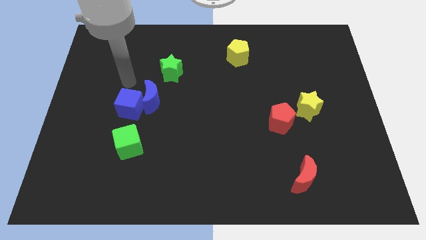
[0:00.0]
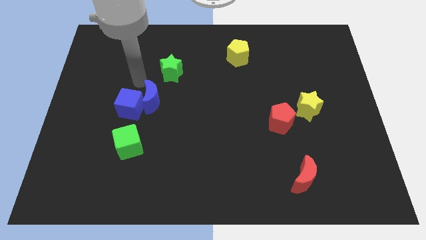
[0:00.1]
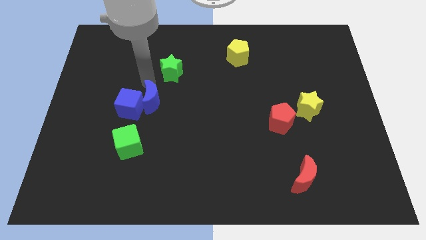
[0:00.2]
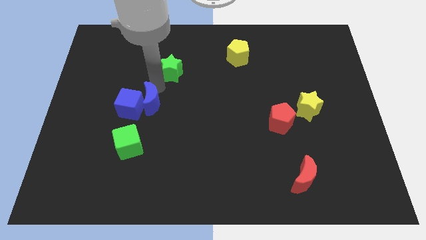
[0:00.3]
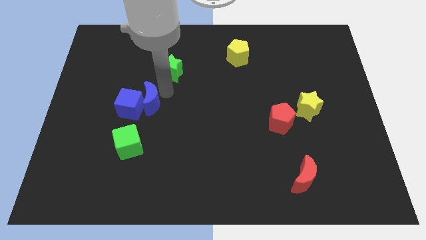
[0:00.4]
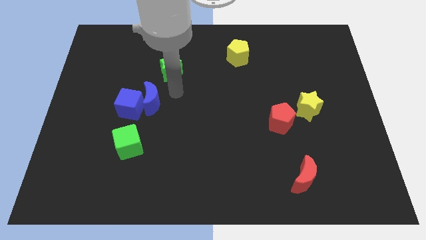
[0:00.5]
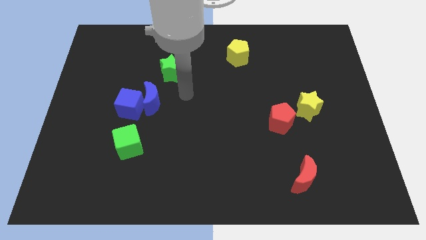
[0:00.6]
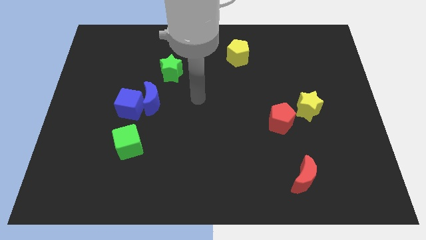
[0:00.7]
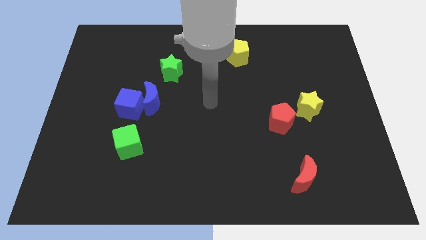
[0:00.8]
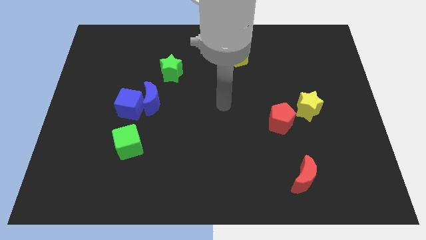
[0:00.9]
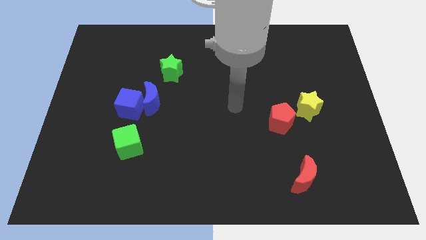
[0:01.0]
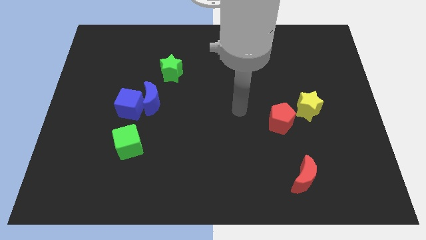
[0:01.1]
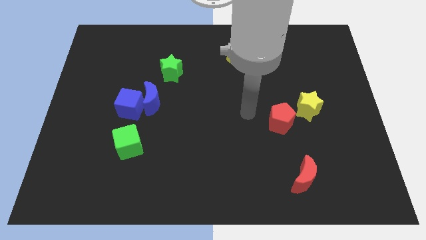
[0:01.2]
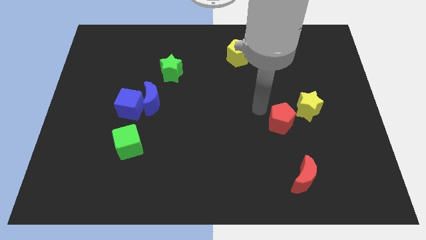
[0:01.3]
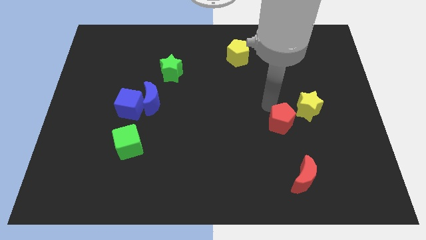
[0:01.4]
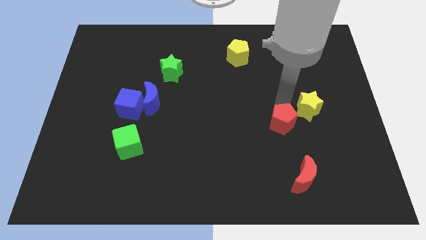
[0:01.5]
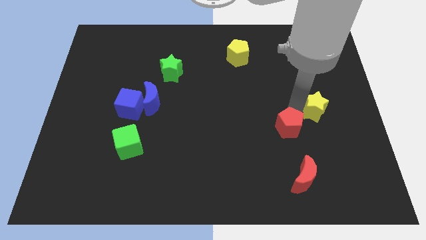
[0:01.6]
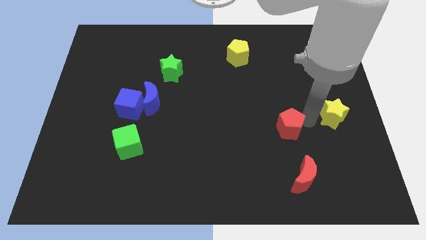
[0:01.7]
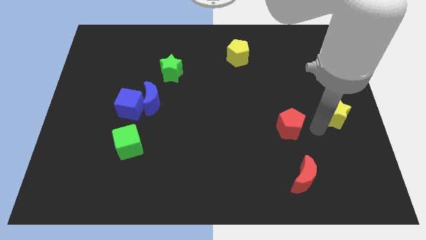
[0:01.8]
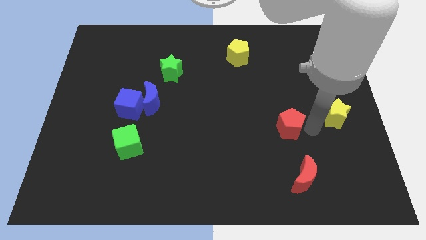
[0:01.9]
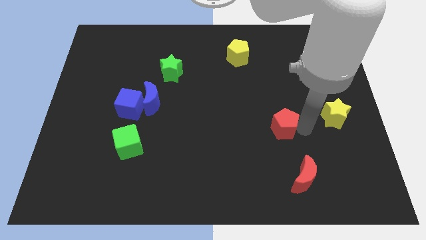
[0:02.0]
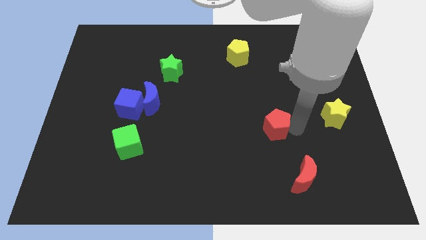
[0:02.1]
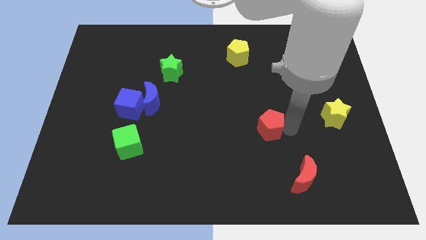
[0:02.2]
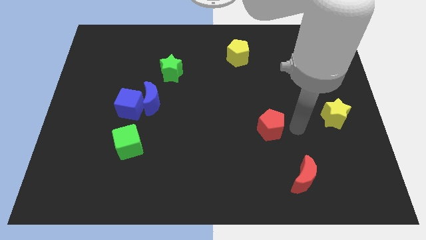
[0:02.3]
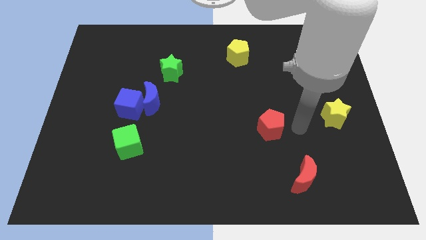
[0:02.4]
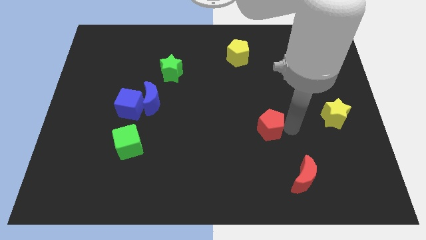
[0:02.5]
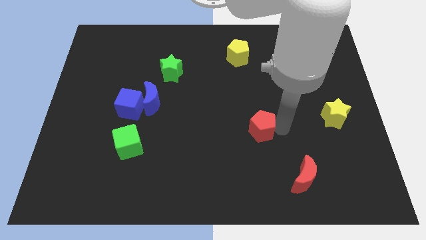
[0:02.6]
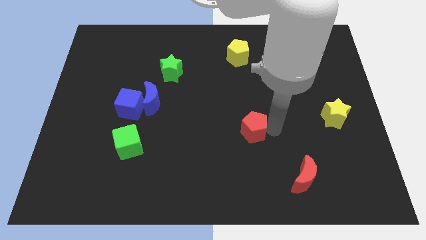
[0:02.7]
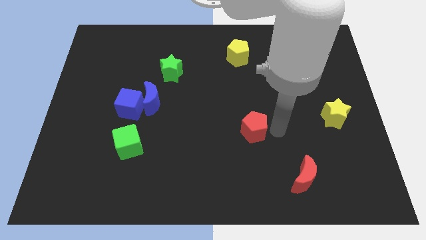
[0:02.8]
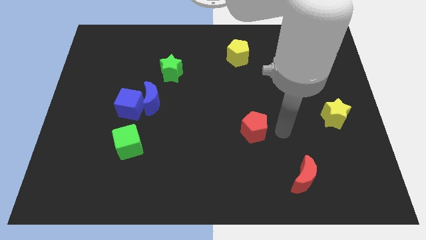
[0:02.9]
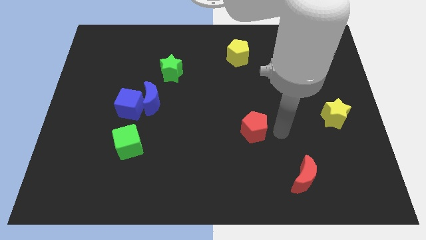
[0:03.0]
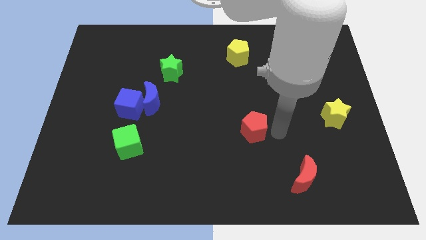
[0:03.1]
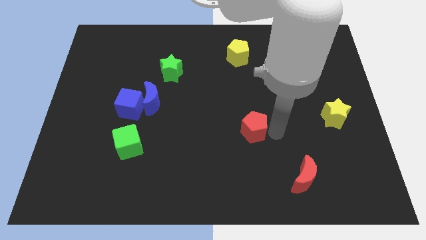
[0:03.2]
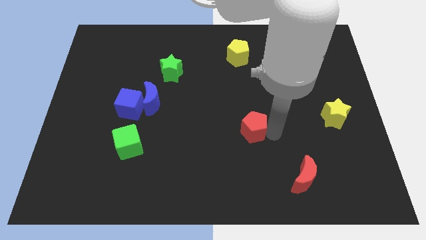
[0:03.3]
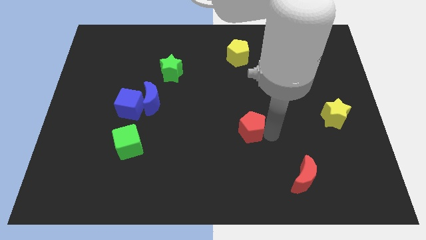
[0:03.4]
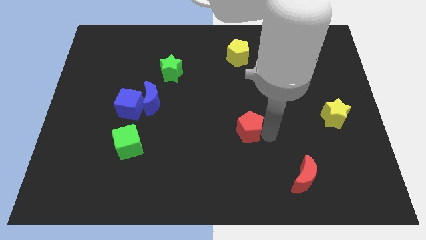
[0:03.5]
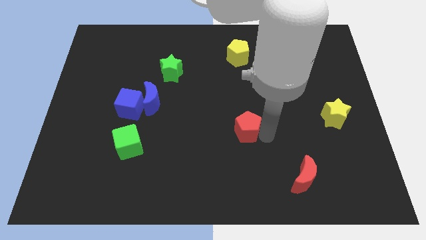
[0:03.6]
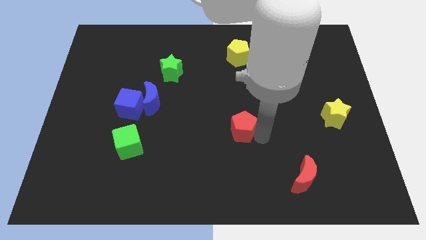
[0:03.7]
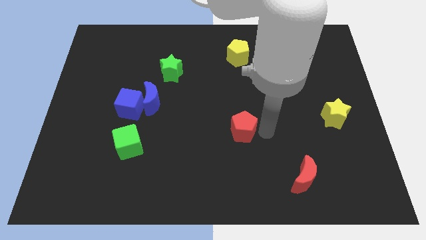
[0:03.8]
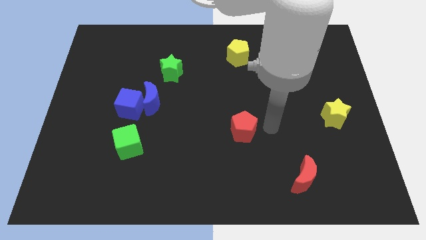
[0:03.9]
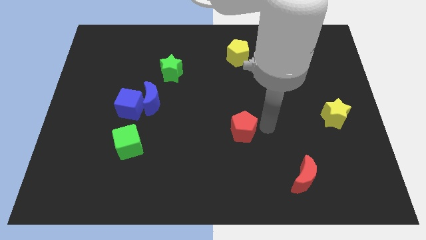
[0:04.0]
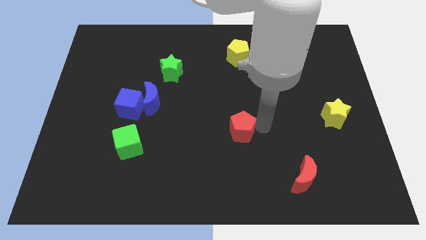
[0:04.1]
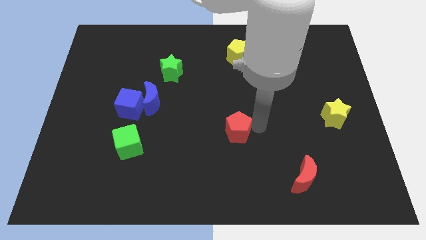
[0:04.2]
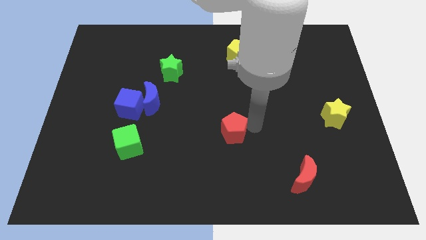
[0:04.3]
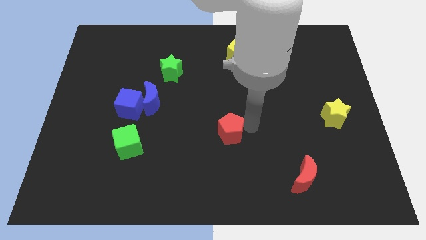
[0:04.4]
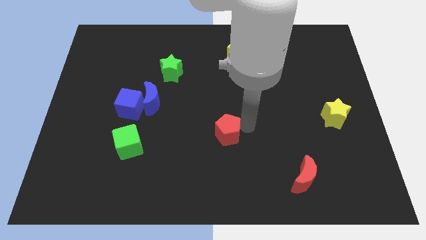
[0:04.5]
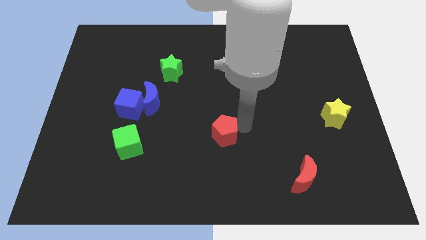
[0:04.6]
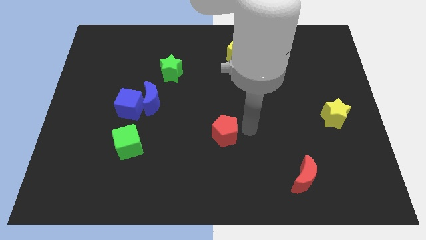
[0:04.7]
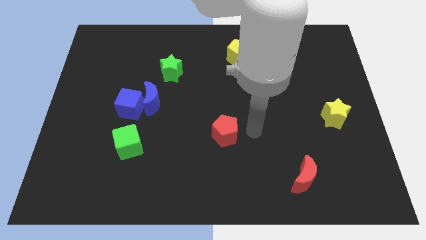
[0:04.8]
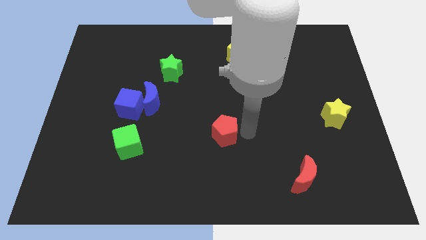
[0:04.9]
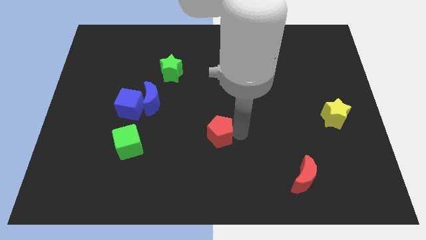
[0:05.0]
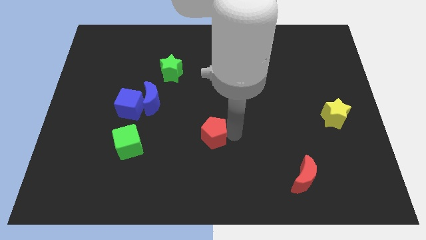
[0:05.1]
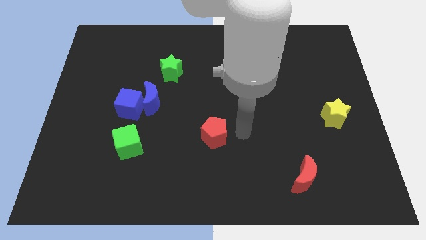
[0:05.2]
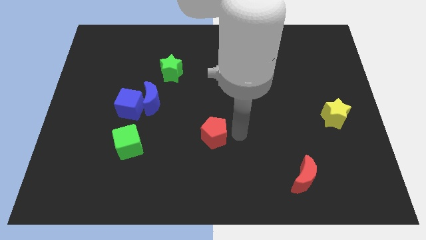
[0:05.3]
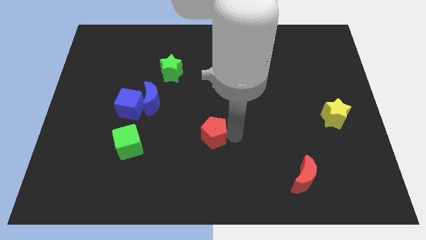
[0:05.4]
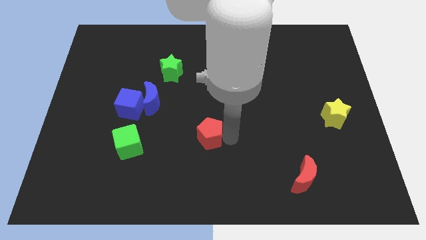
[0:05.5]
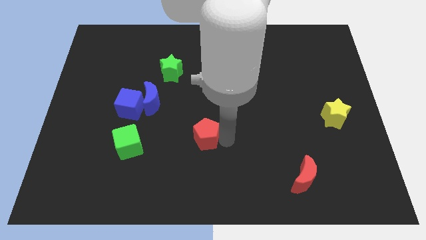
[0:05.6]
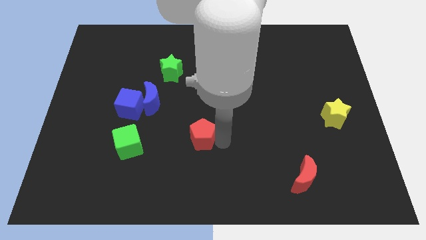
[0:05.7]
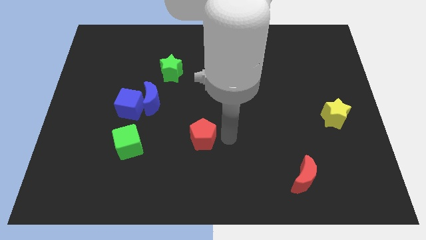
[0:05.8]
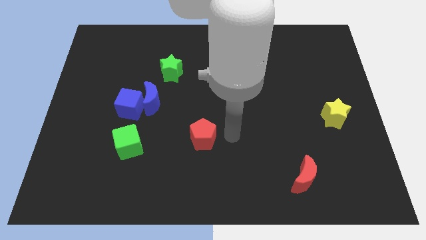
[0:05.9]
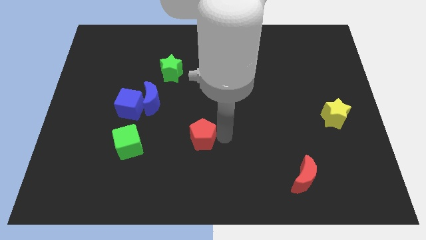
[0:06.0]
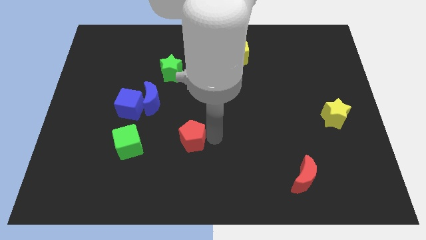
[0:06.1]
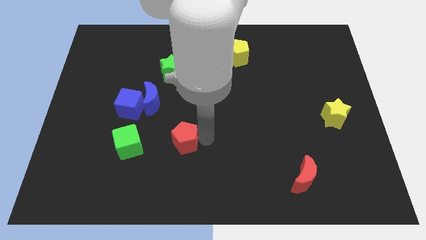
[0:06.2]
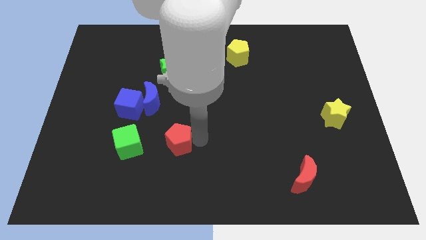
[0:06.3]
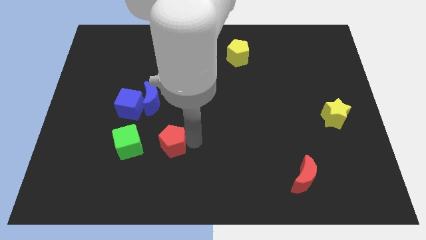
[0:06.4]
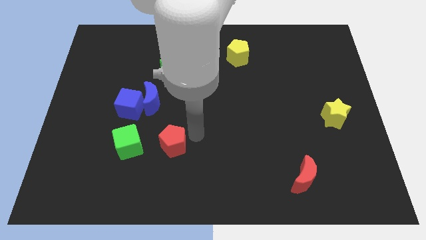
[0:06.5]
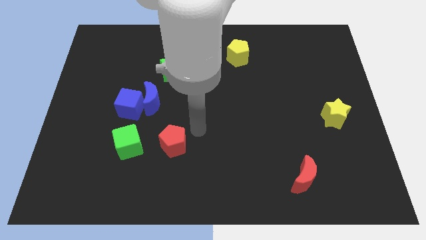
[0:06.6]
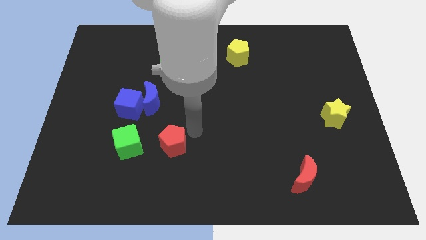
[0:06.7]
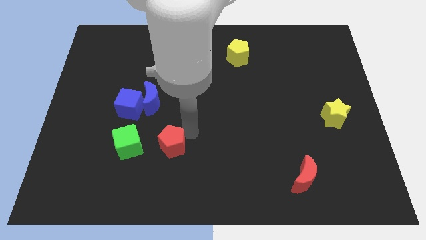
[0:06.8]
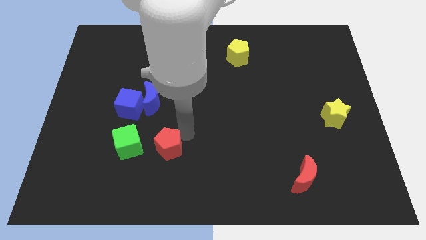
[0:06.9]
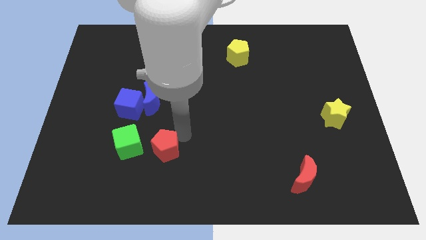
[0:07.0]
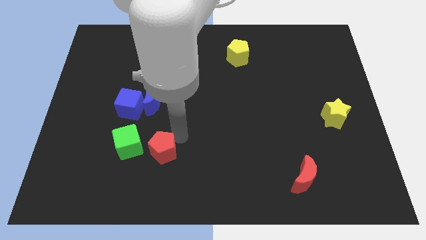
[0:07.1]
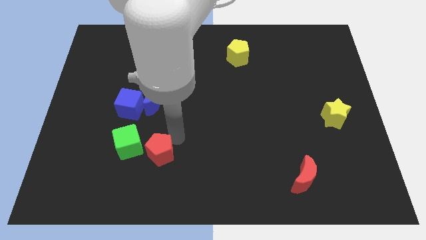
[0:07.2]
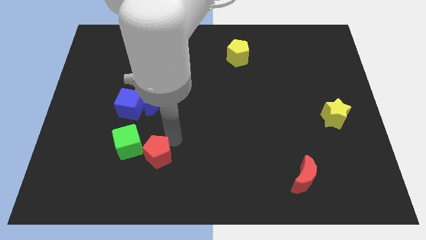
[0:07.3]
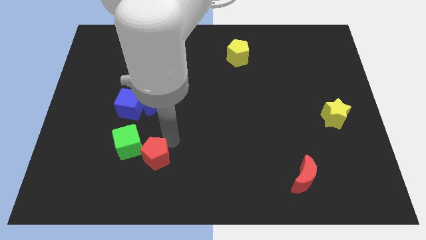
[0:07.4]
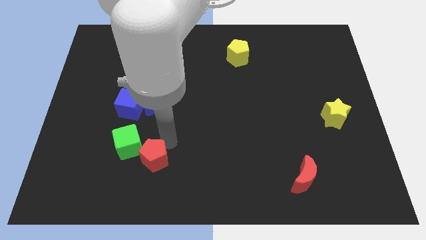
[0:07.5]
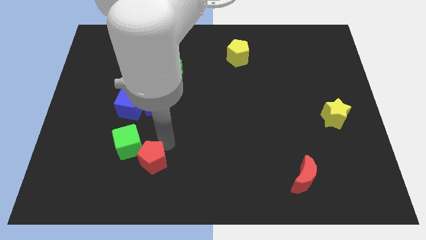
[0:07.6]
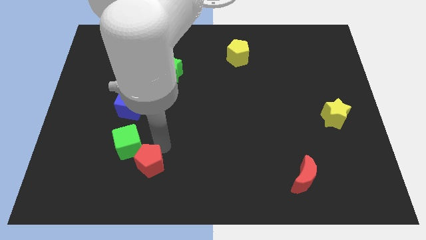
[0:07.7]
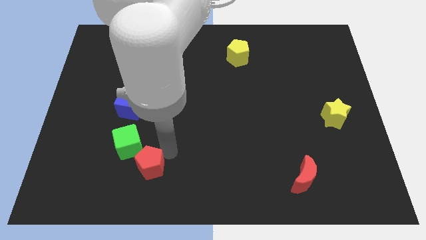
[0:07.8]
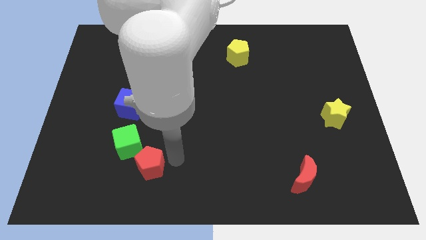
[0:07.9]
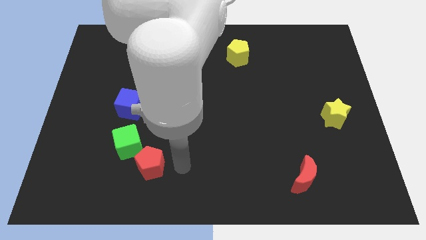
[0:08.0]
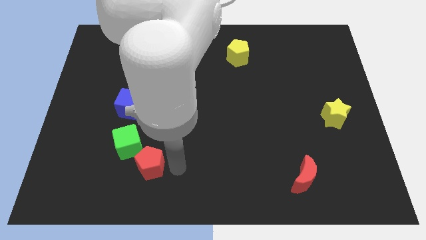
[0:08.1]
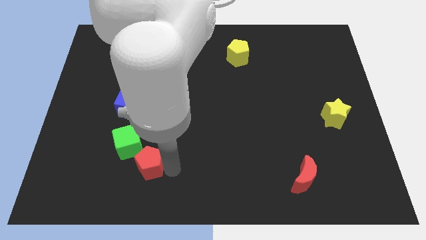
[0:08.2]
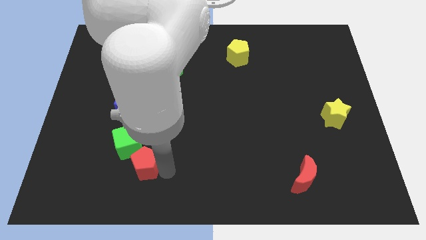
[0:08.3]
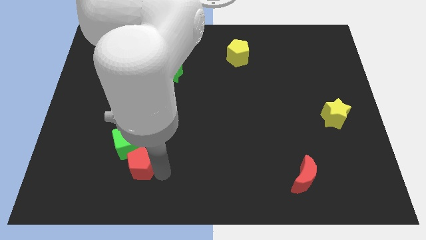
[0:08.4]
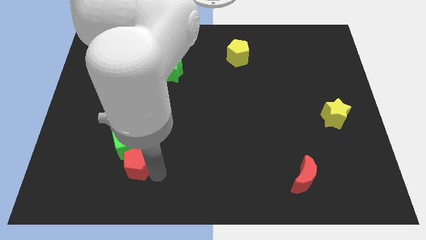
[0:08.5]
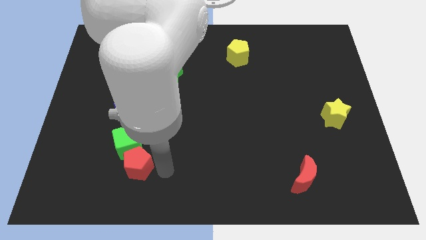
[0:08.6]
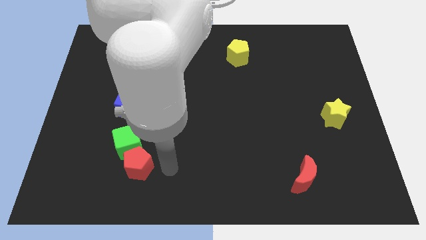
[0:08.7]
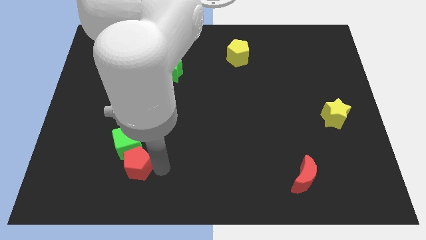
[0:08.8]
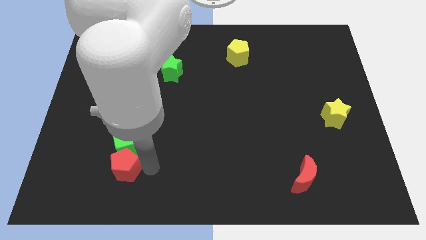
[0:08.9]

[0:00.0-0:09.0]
put the red pentagon to the bottom left of the green cube
